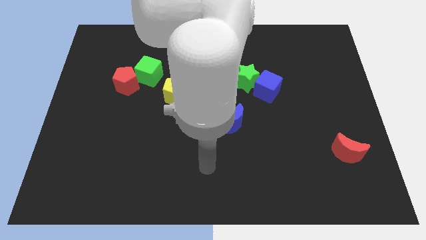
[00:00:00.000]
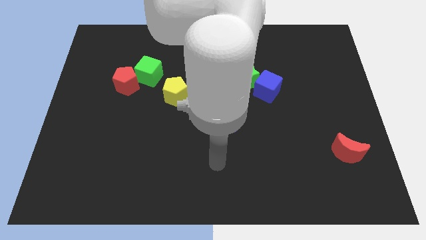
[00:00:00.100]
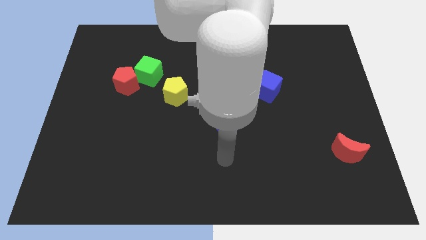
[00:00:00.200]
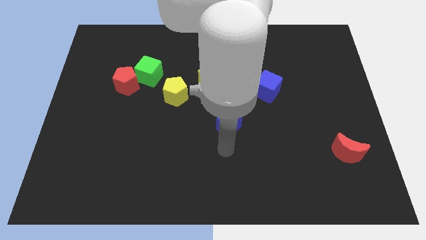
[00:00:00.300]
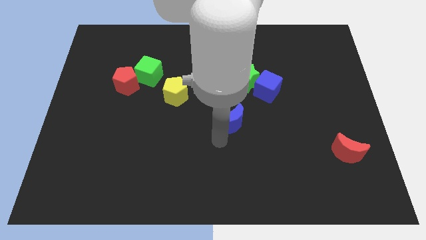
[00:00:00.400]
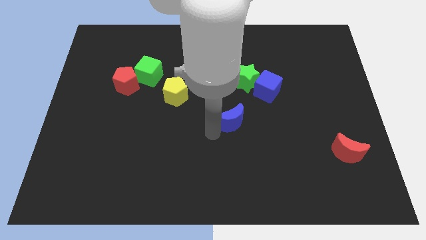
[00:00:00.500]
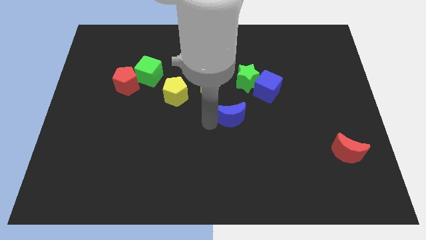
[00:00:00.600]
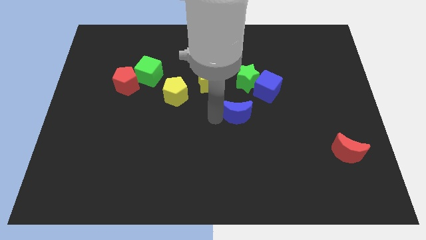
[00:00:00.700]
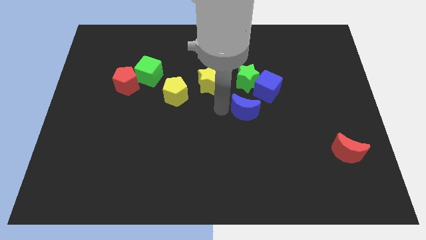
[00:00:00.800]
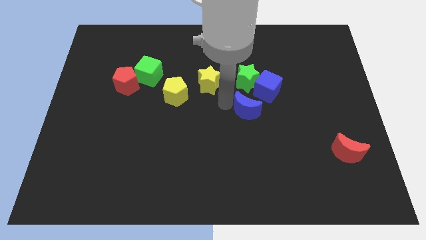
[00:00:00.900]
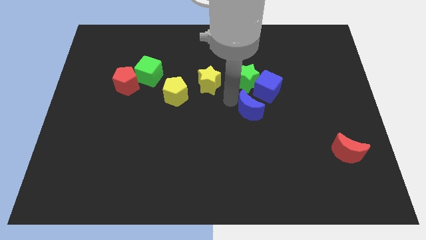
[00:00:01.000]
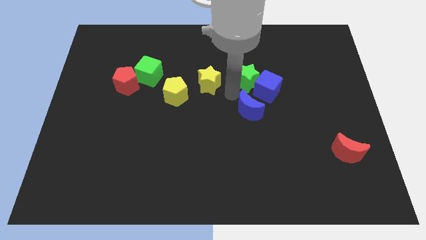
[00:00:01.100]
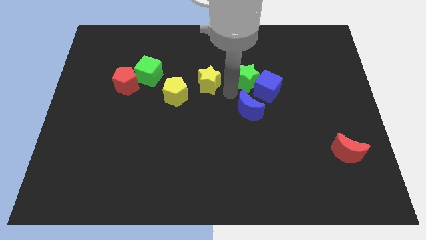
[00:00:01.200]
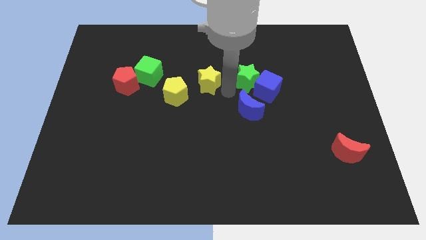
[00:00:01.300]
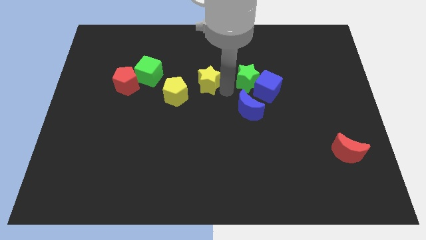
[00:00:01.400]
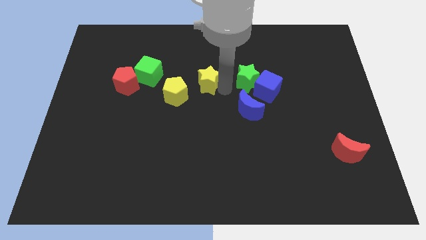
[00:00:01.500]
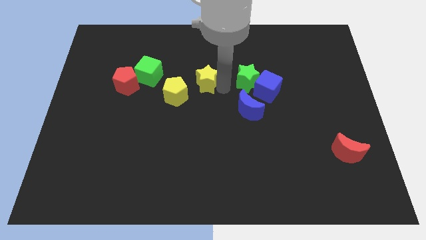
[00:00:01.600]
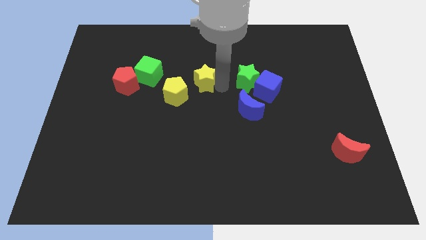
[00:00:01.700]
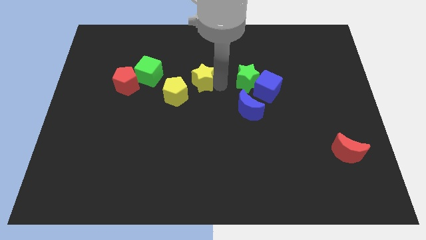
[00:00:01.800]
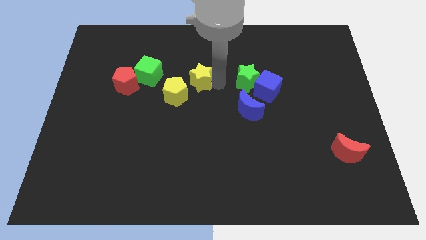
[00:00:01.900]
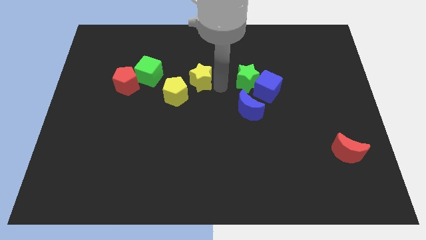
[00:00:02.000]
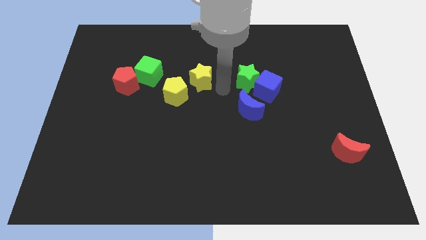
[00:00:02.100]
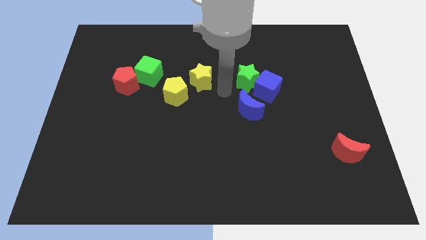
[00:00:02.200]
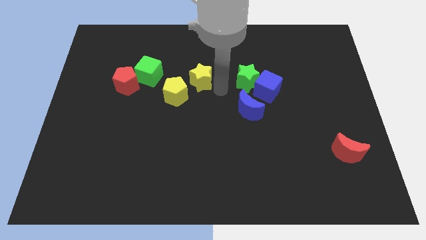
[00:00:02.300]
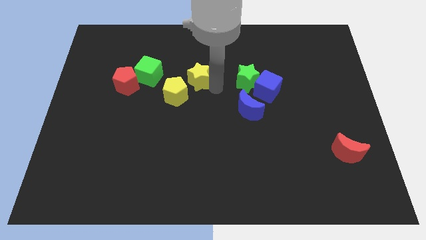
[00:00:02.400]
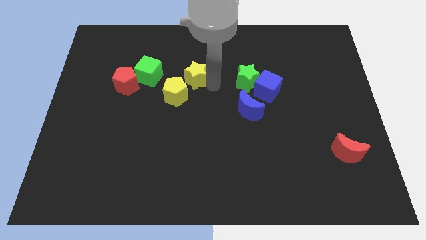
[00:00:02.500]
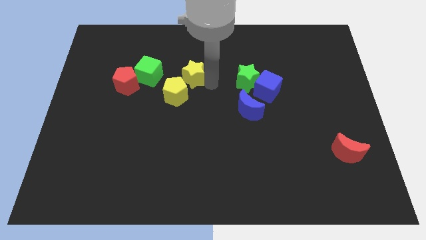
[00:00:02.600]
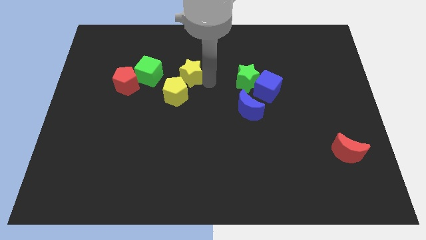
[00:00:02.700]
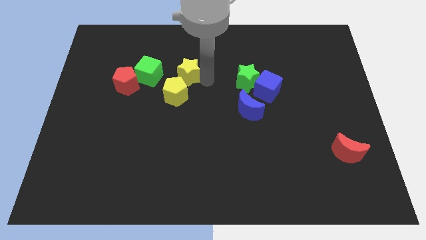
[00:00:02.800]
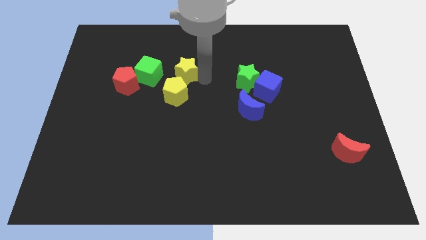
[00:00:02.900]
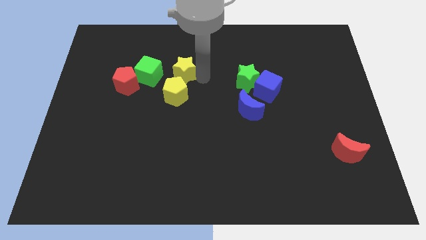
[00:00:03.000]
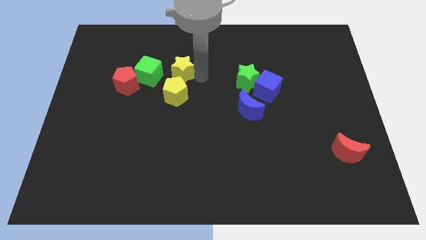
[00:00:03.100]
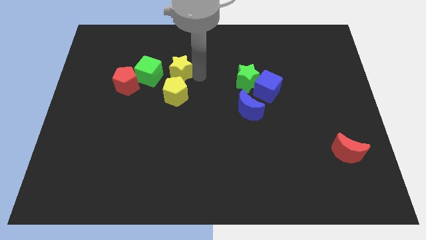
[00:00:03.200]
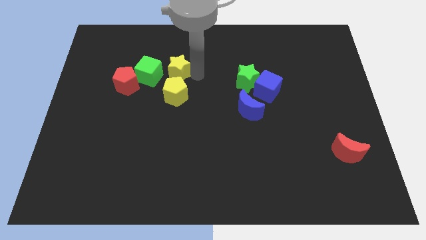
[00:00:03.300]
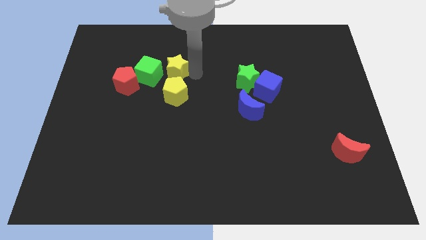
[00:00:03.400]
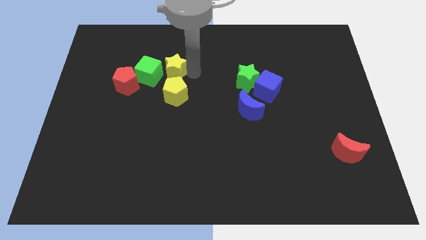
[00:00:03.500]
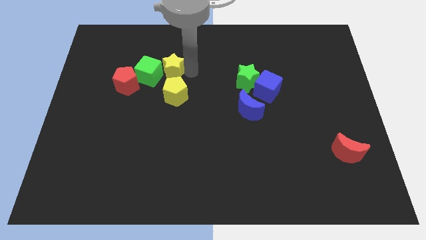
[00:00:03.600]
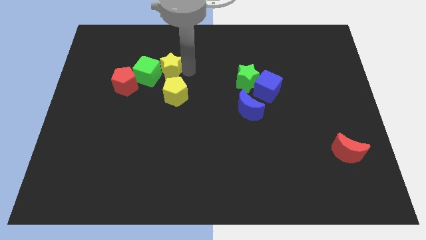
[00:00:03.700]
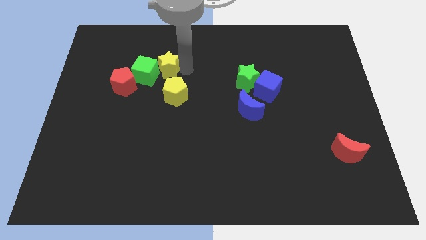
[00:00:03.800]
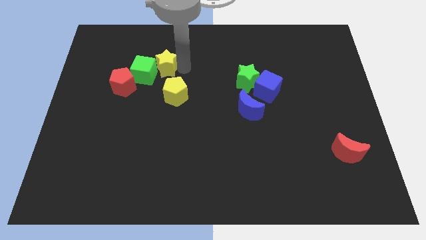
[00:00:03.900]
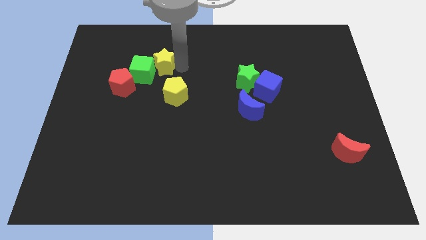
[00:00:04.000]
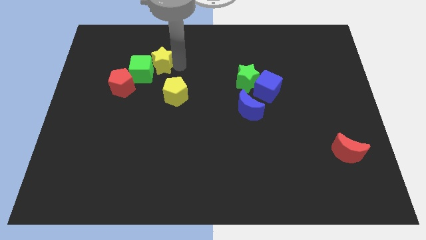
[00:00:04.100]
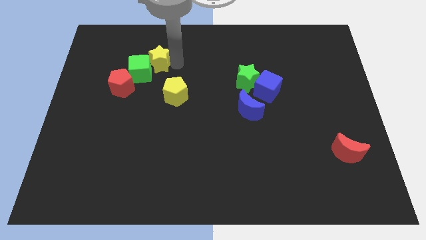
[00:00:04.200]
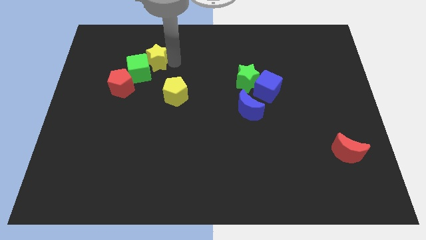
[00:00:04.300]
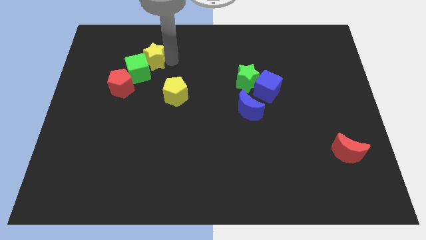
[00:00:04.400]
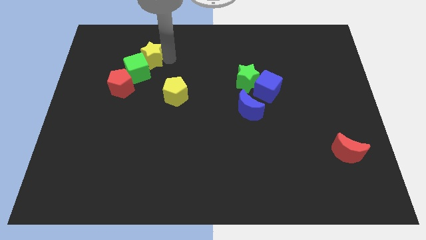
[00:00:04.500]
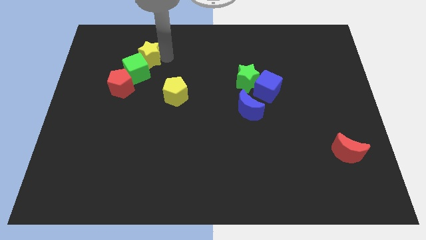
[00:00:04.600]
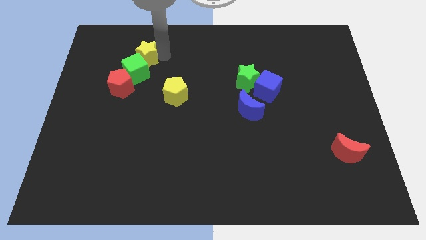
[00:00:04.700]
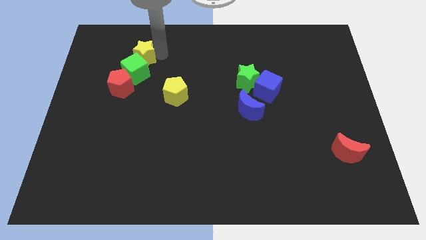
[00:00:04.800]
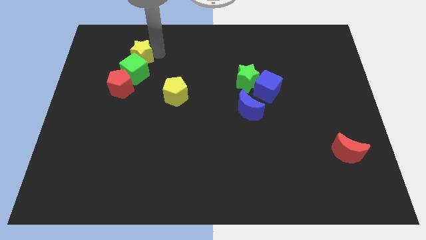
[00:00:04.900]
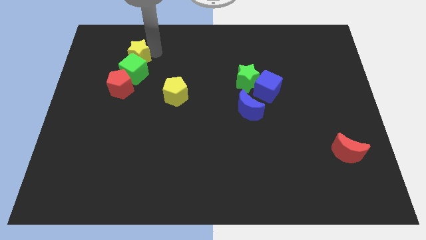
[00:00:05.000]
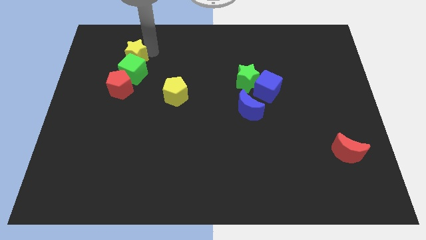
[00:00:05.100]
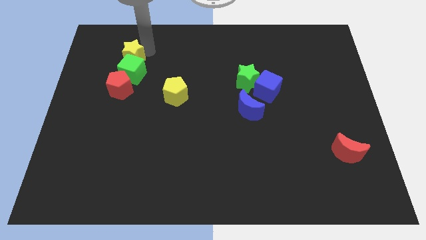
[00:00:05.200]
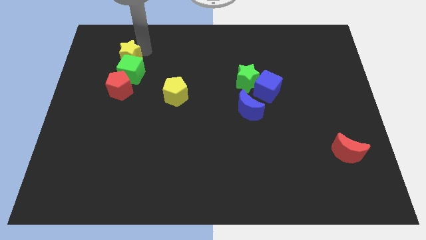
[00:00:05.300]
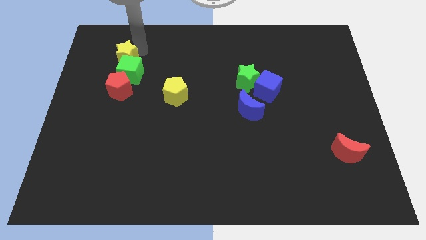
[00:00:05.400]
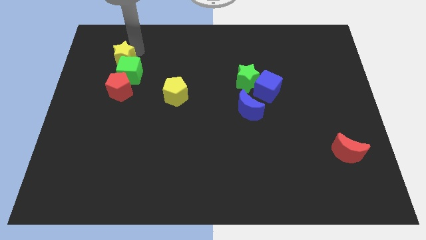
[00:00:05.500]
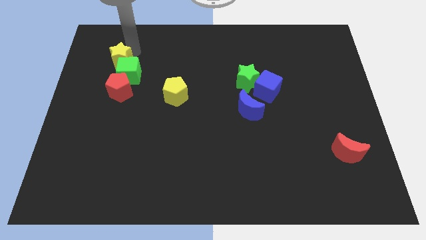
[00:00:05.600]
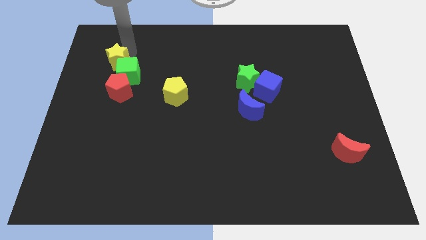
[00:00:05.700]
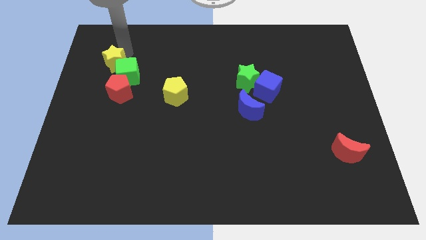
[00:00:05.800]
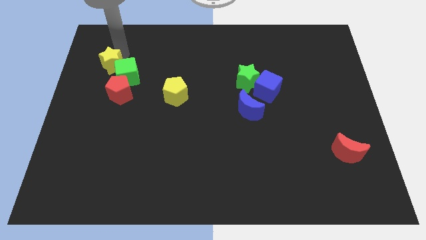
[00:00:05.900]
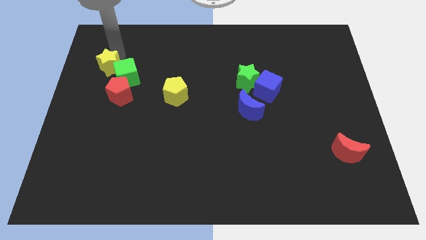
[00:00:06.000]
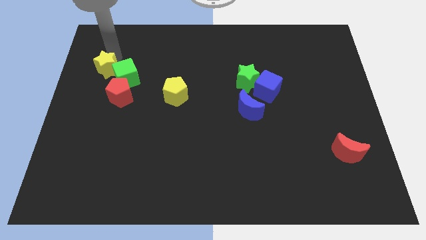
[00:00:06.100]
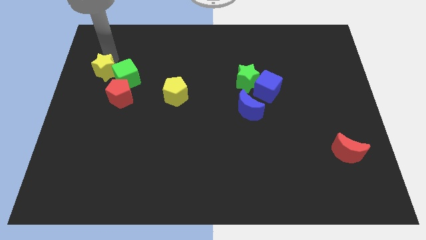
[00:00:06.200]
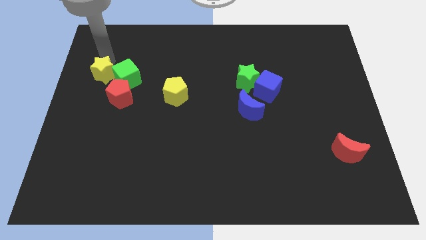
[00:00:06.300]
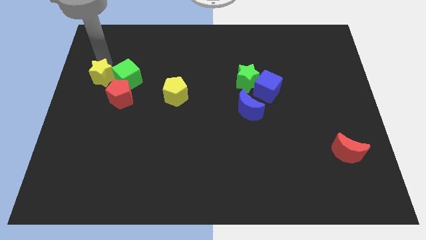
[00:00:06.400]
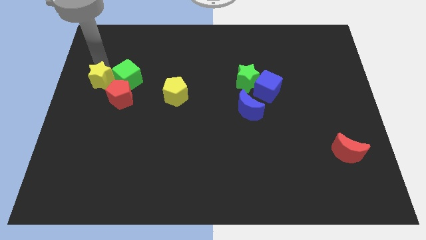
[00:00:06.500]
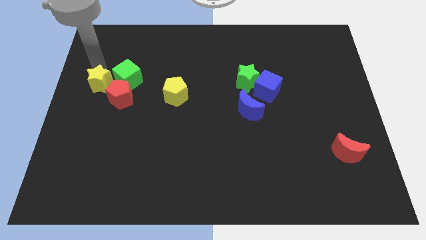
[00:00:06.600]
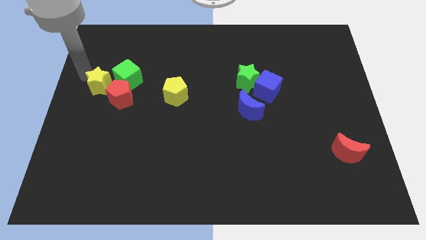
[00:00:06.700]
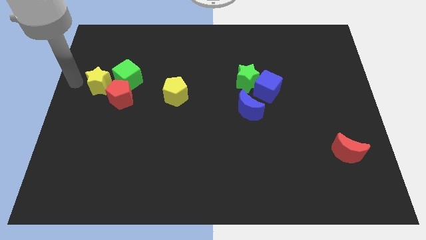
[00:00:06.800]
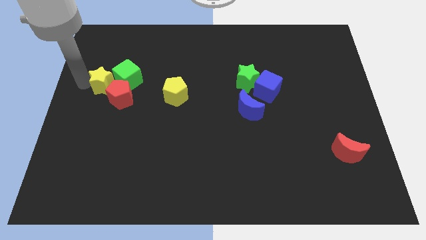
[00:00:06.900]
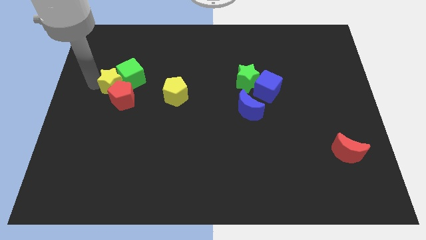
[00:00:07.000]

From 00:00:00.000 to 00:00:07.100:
move the yellow star close to the red pentagon
